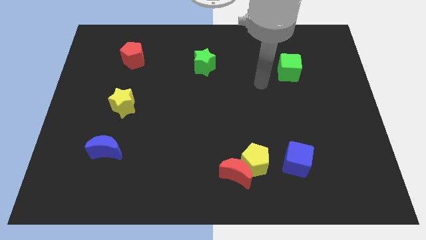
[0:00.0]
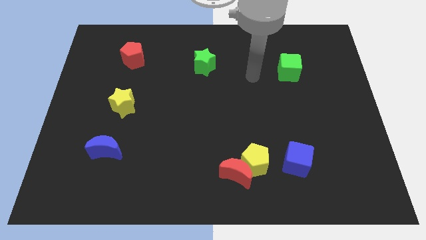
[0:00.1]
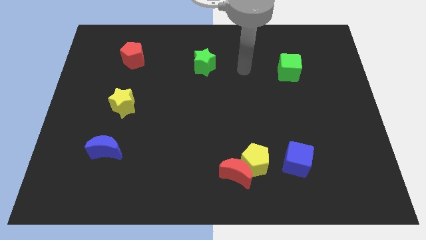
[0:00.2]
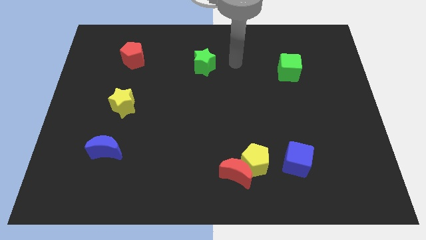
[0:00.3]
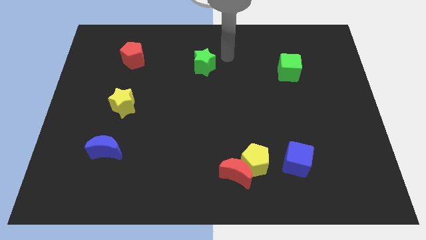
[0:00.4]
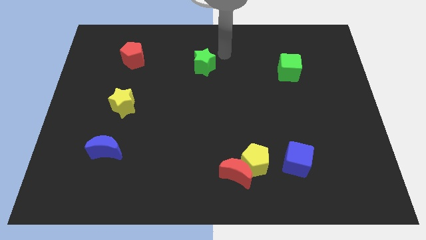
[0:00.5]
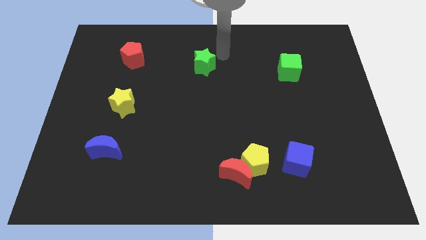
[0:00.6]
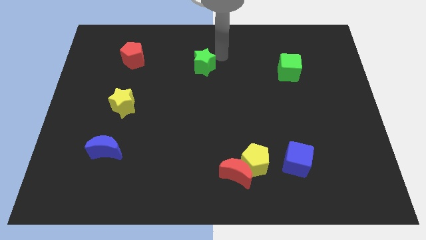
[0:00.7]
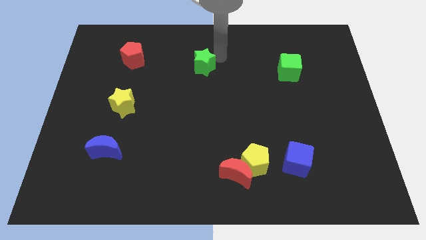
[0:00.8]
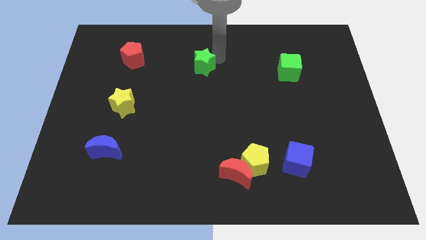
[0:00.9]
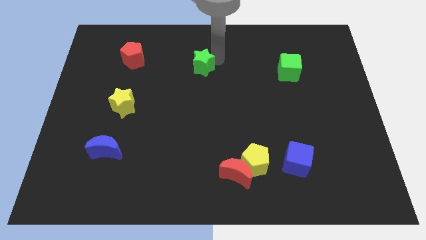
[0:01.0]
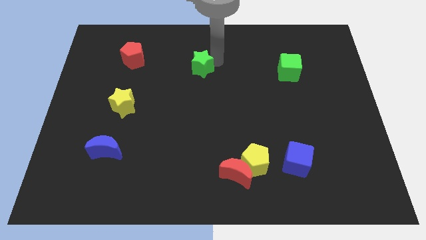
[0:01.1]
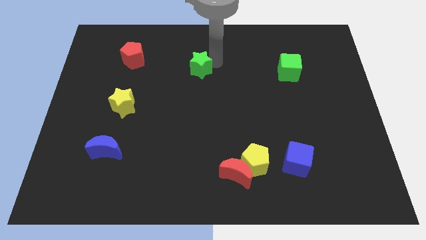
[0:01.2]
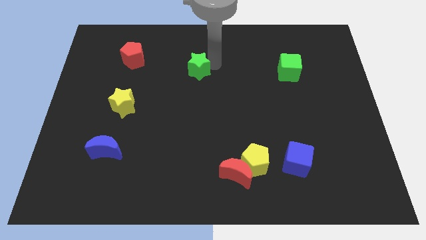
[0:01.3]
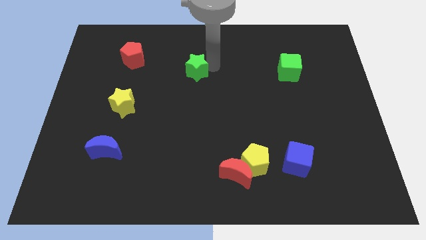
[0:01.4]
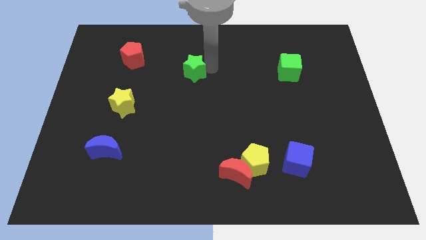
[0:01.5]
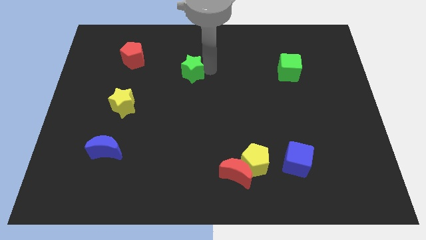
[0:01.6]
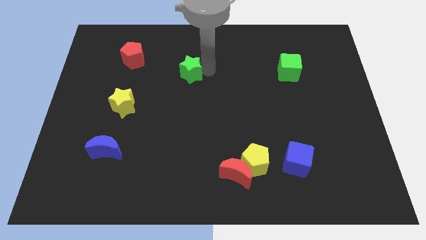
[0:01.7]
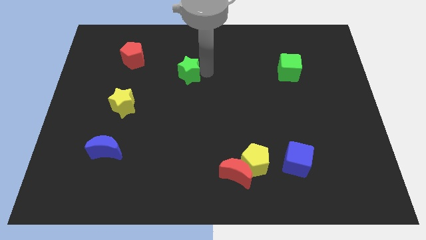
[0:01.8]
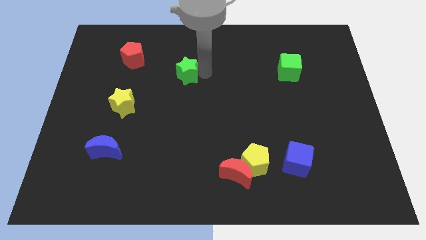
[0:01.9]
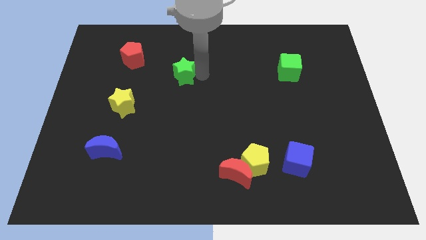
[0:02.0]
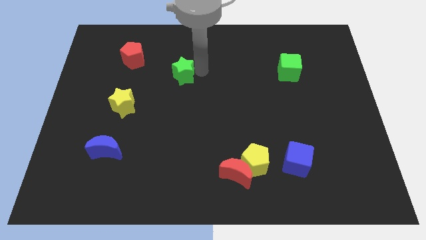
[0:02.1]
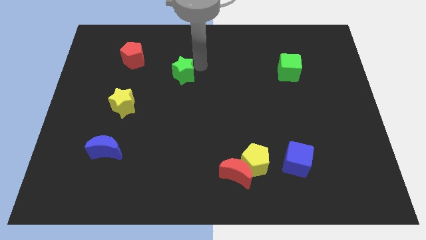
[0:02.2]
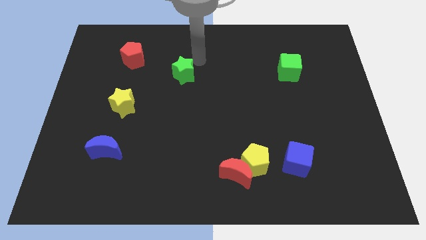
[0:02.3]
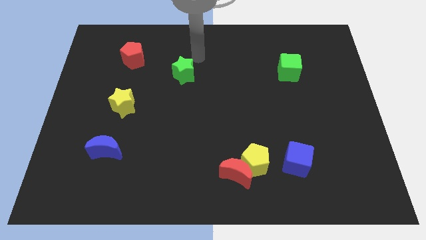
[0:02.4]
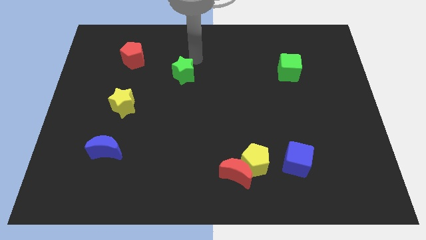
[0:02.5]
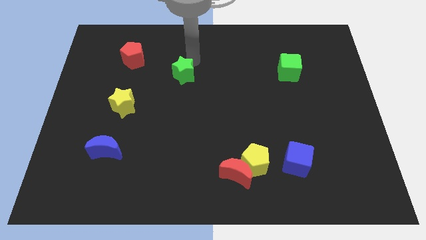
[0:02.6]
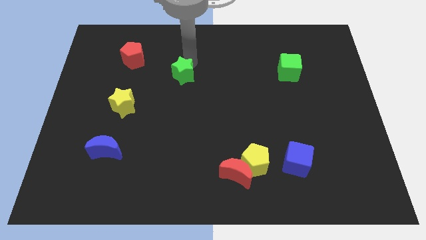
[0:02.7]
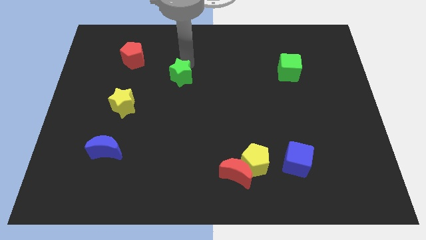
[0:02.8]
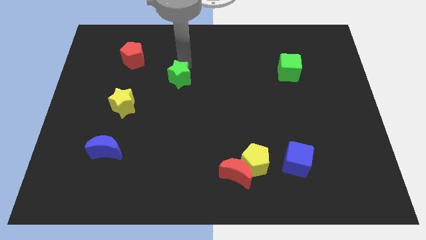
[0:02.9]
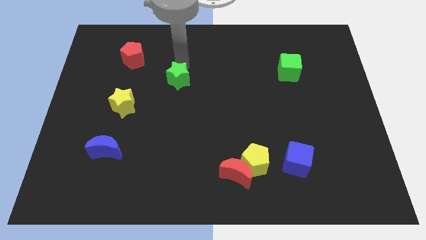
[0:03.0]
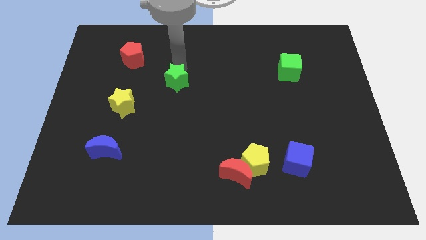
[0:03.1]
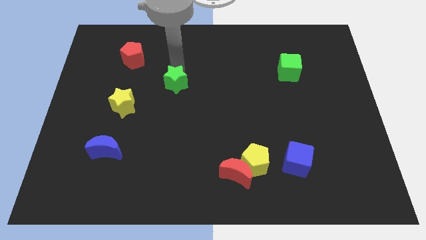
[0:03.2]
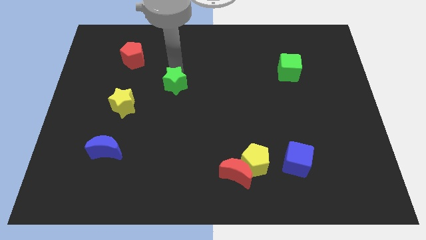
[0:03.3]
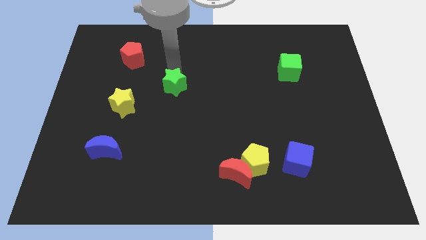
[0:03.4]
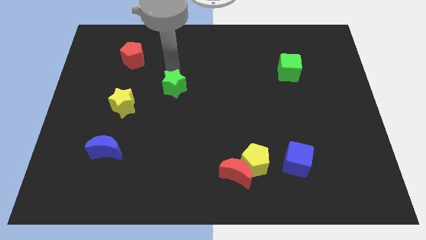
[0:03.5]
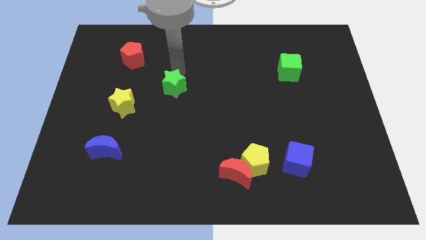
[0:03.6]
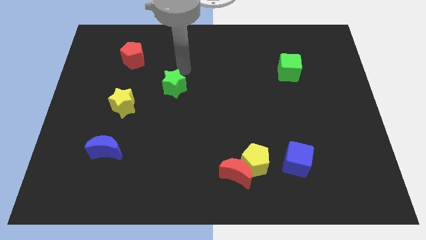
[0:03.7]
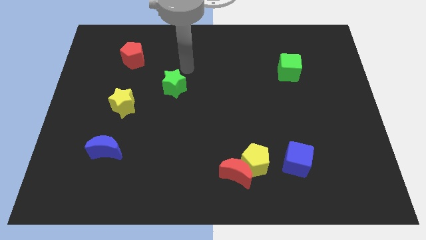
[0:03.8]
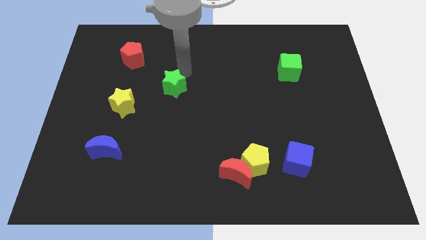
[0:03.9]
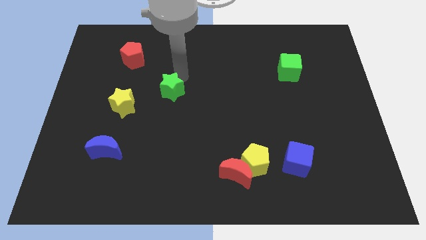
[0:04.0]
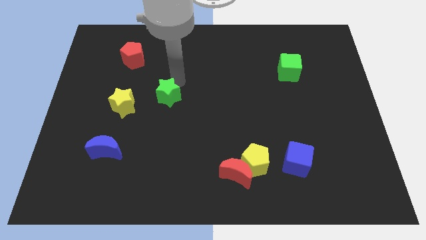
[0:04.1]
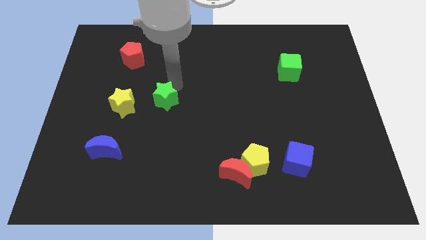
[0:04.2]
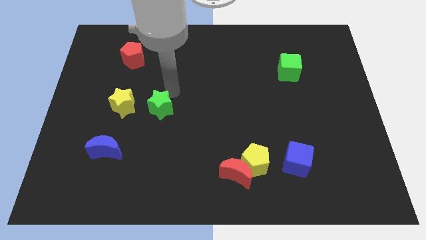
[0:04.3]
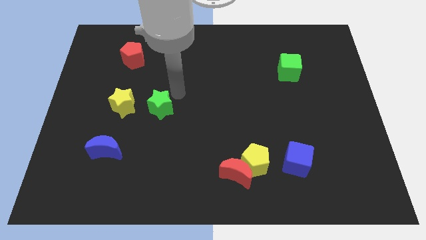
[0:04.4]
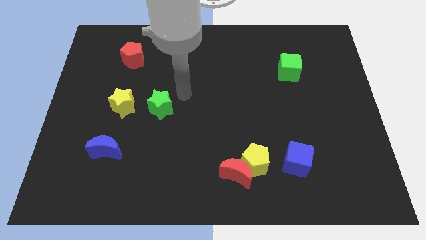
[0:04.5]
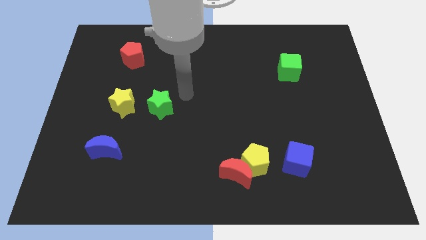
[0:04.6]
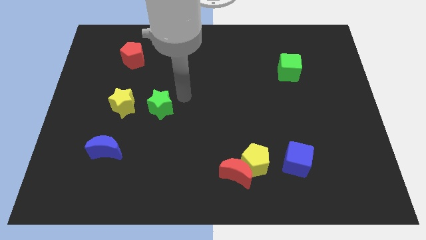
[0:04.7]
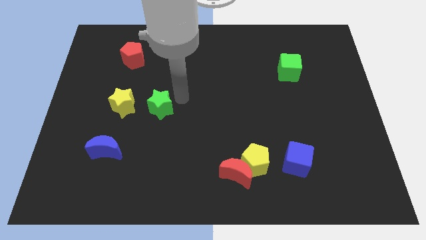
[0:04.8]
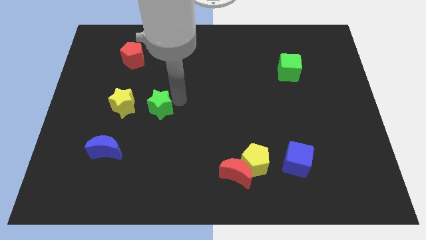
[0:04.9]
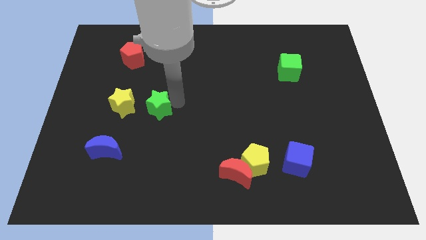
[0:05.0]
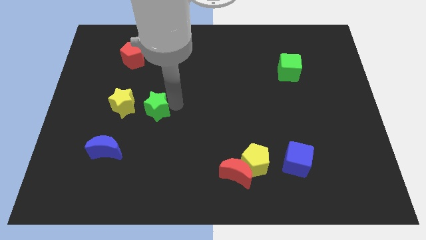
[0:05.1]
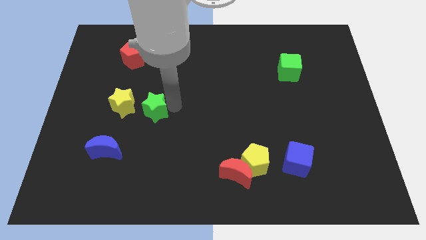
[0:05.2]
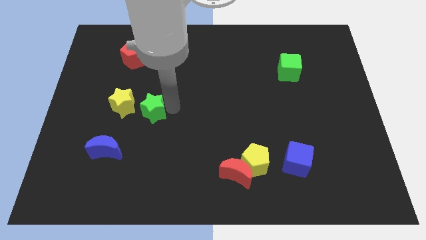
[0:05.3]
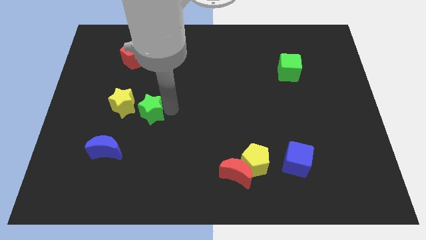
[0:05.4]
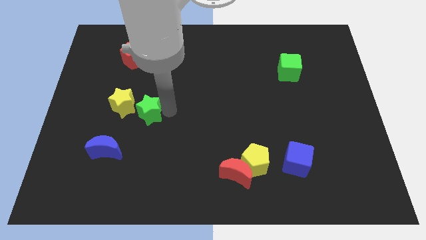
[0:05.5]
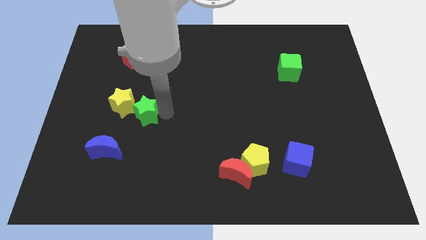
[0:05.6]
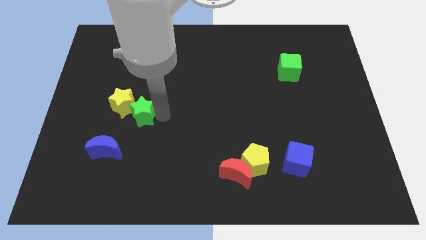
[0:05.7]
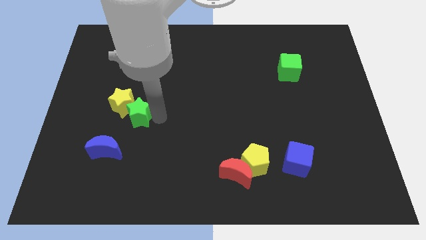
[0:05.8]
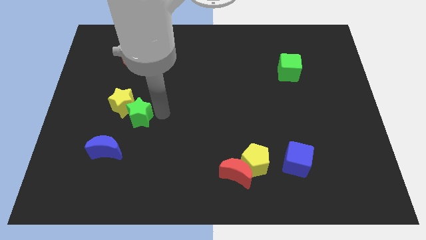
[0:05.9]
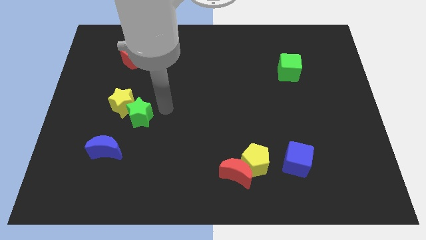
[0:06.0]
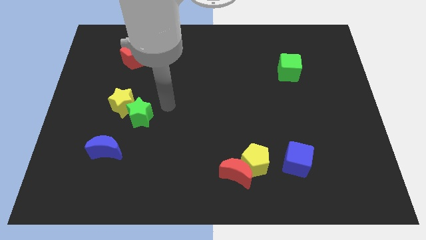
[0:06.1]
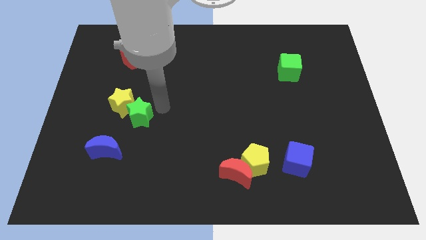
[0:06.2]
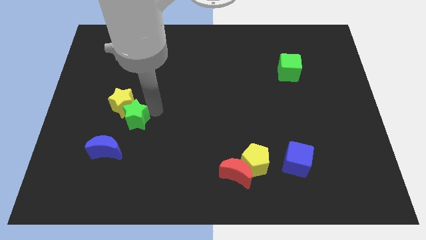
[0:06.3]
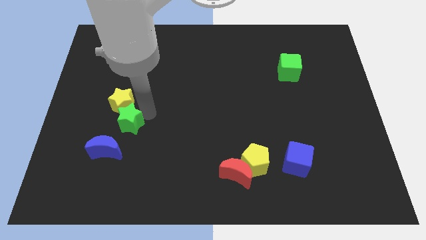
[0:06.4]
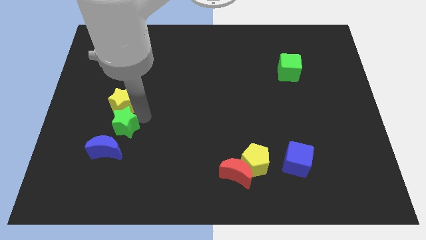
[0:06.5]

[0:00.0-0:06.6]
slide the green star diagonally down and to the left of the yellow star
